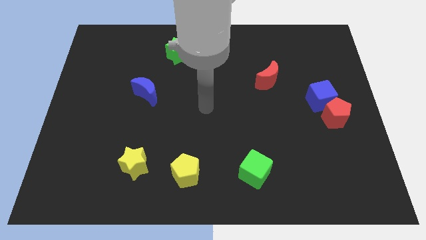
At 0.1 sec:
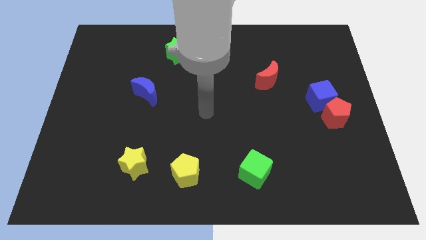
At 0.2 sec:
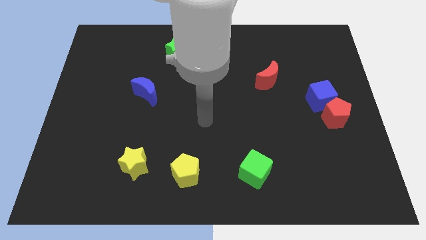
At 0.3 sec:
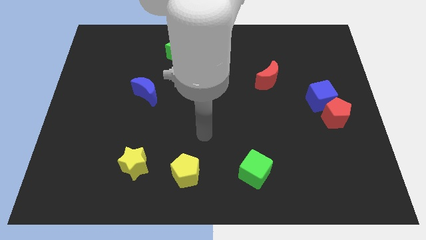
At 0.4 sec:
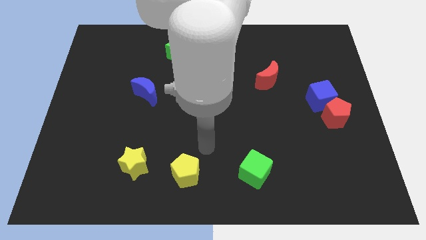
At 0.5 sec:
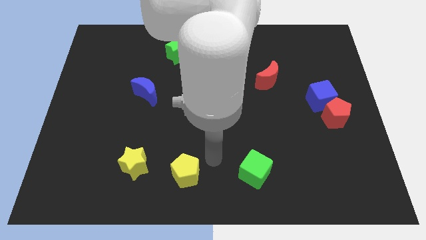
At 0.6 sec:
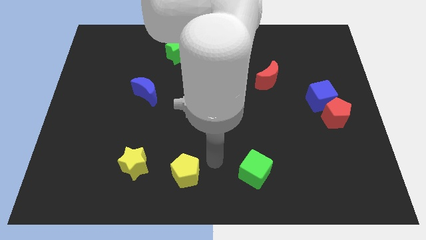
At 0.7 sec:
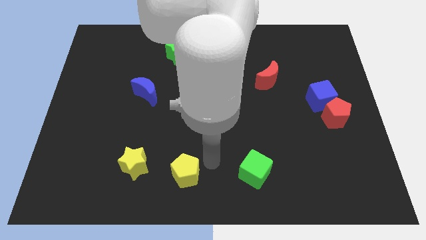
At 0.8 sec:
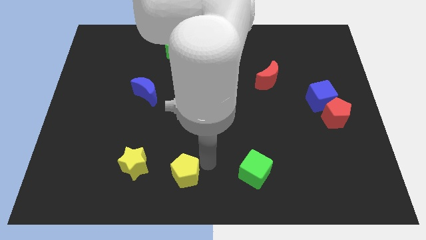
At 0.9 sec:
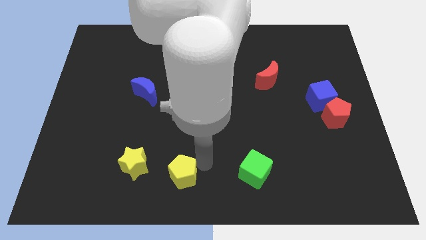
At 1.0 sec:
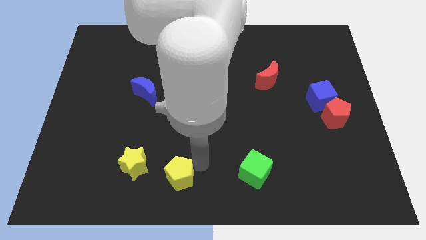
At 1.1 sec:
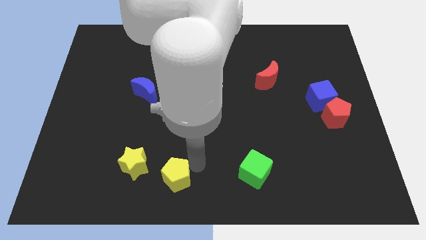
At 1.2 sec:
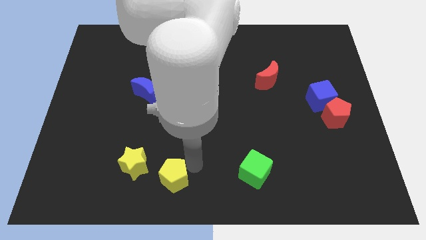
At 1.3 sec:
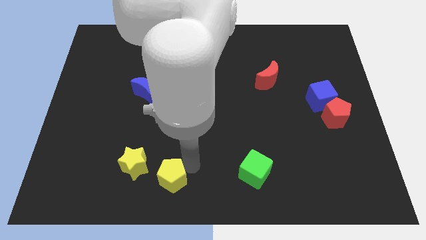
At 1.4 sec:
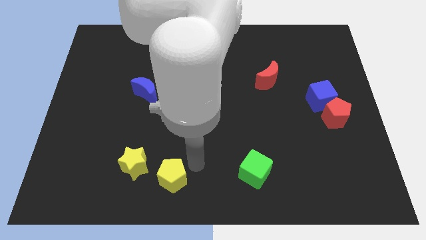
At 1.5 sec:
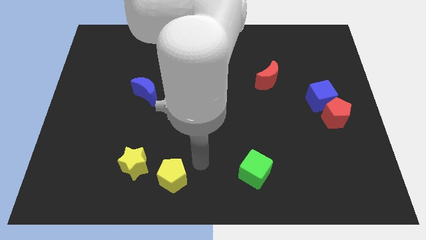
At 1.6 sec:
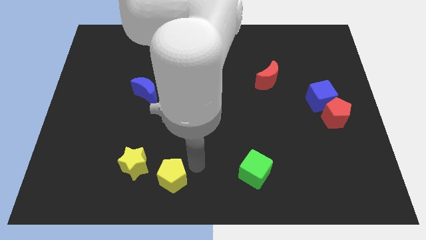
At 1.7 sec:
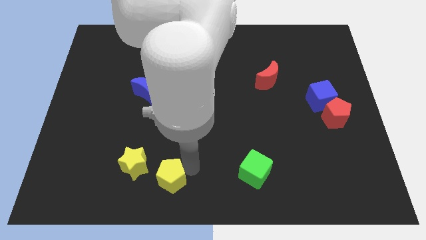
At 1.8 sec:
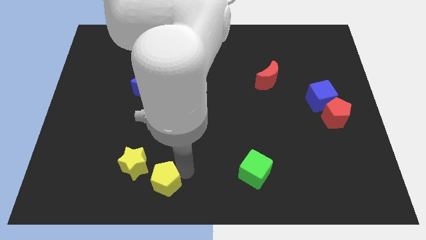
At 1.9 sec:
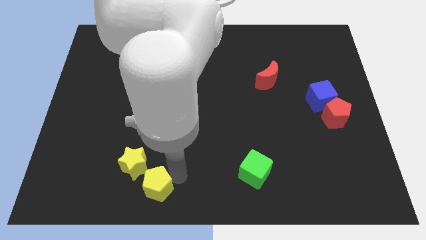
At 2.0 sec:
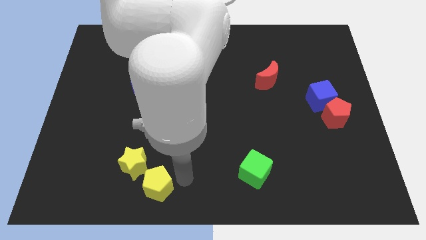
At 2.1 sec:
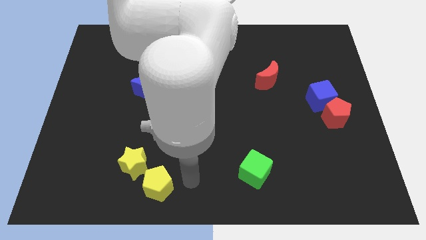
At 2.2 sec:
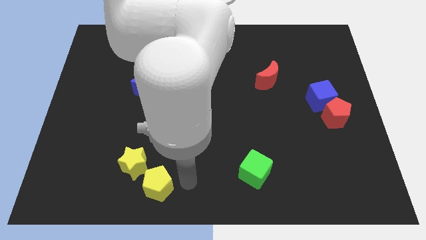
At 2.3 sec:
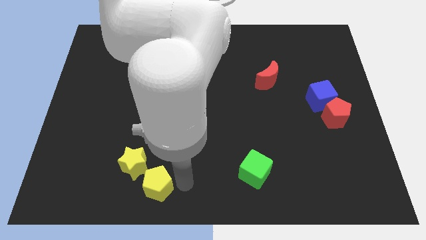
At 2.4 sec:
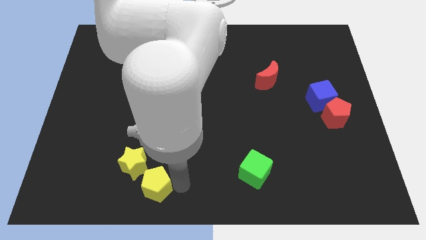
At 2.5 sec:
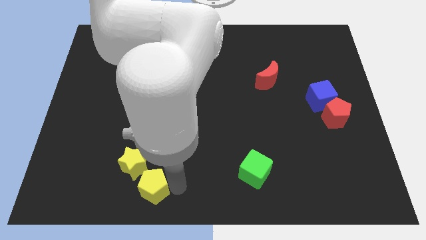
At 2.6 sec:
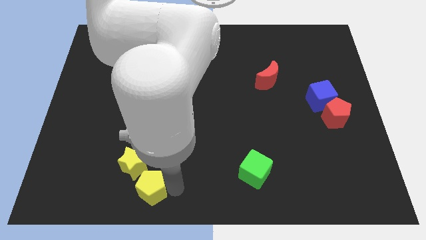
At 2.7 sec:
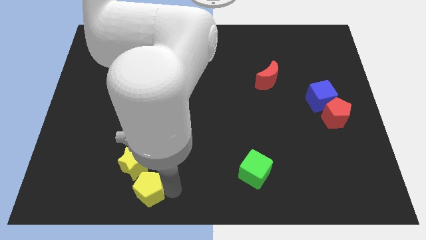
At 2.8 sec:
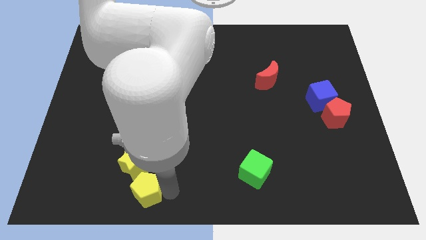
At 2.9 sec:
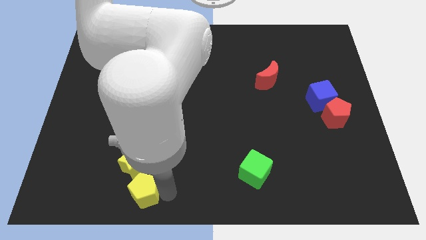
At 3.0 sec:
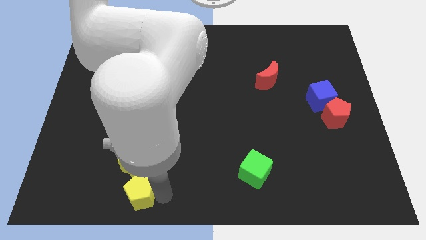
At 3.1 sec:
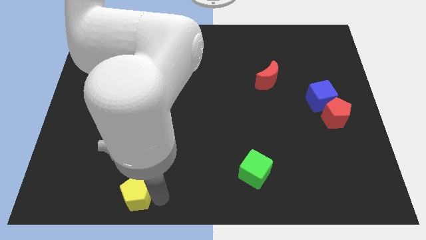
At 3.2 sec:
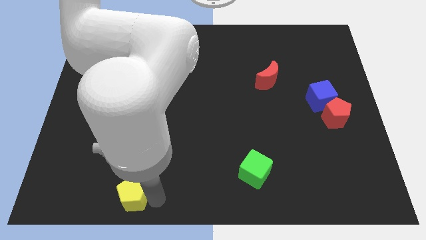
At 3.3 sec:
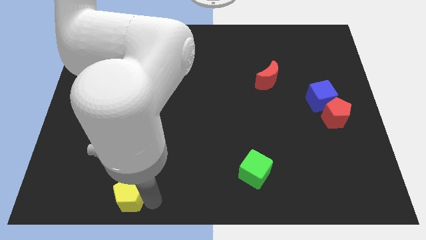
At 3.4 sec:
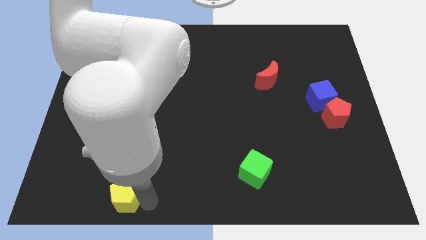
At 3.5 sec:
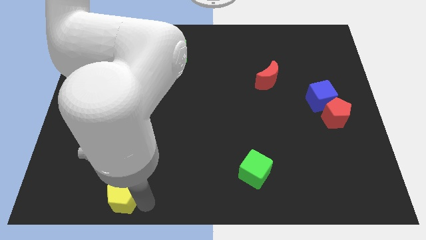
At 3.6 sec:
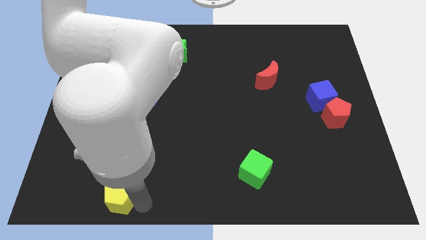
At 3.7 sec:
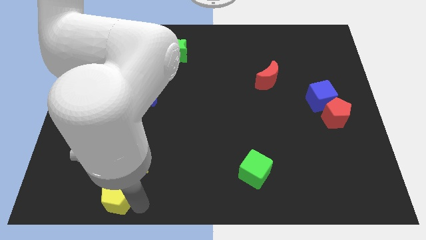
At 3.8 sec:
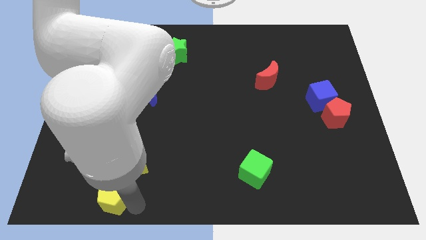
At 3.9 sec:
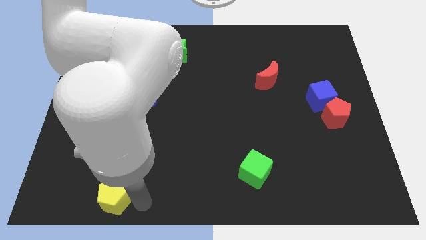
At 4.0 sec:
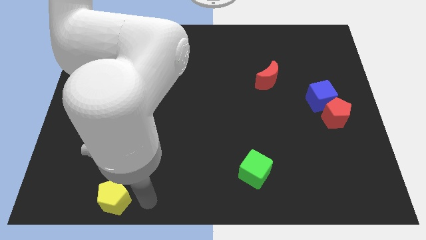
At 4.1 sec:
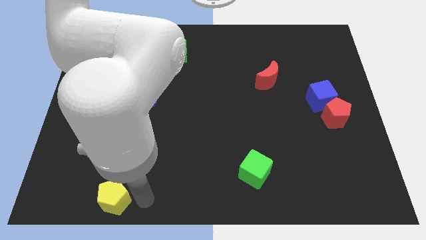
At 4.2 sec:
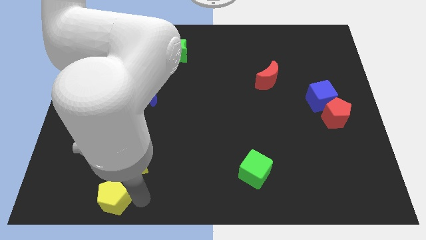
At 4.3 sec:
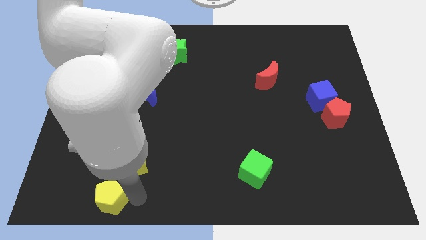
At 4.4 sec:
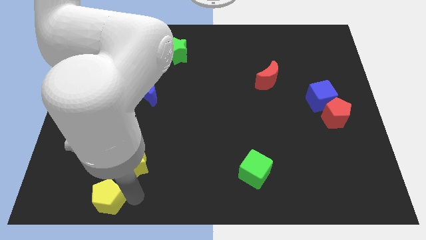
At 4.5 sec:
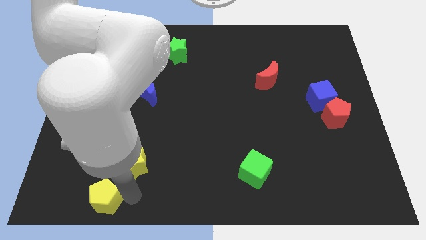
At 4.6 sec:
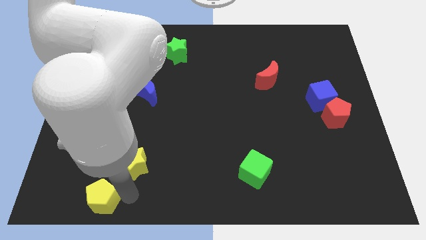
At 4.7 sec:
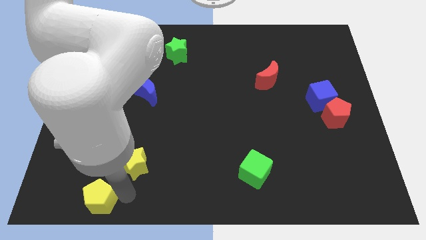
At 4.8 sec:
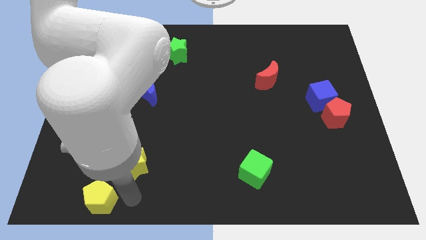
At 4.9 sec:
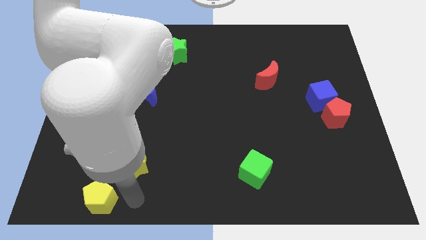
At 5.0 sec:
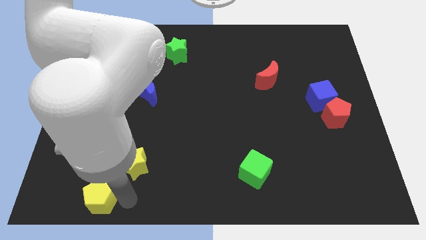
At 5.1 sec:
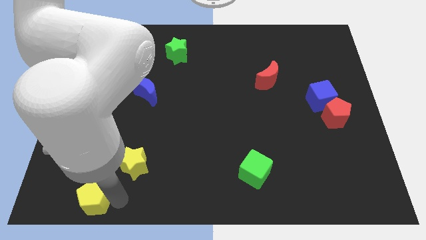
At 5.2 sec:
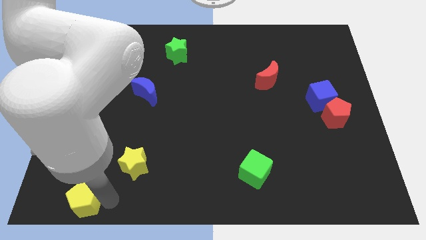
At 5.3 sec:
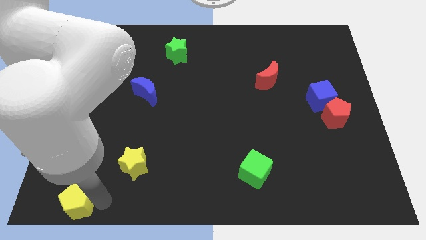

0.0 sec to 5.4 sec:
slide the yellow pentagon to the lower left corner
